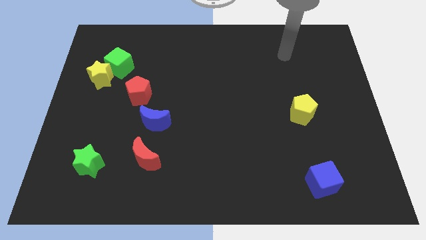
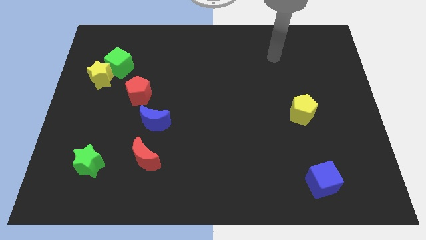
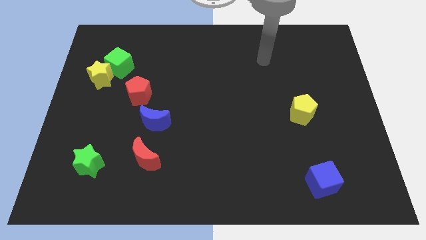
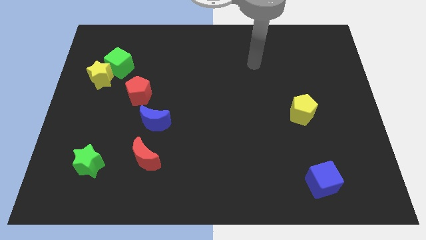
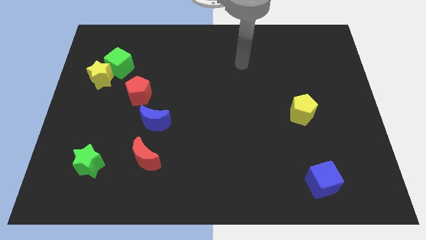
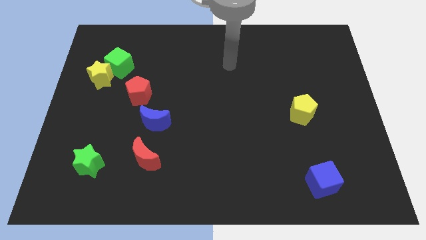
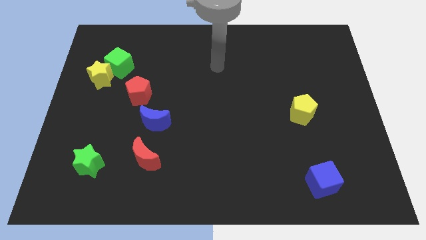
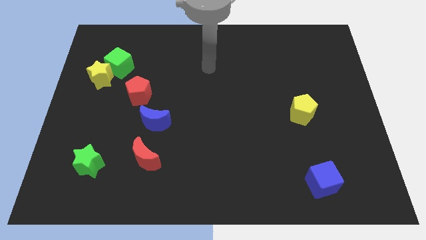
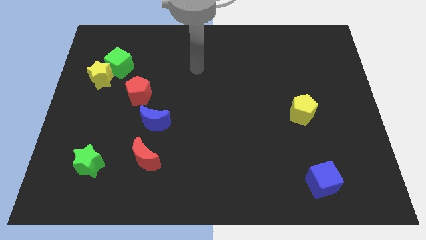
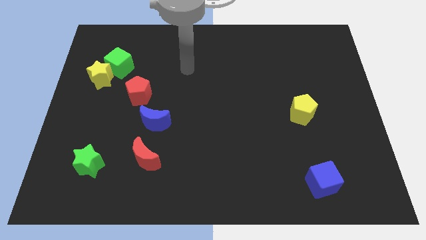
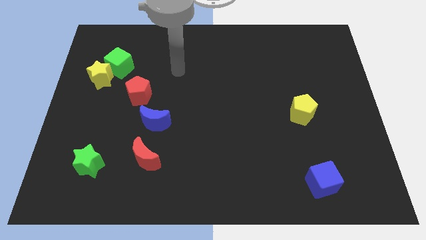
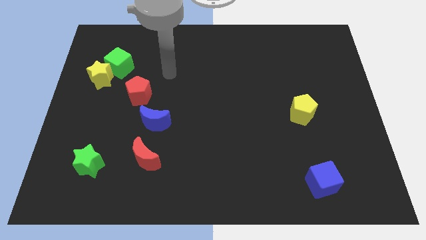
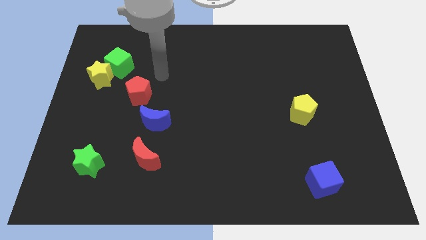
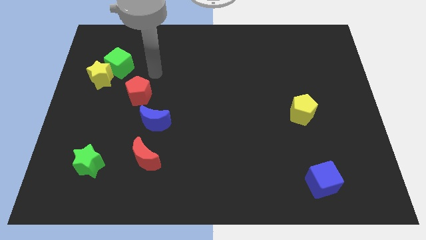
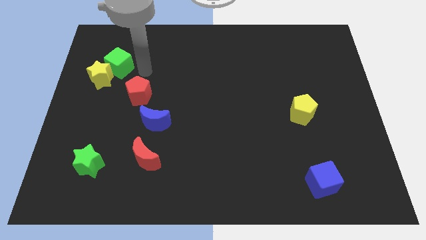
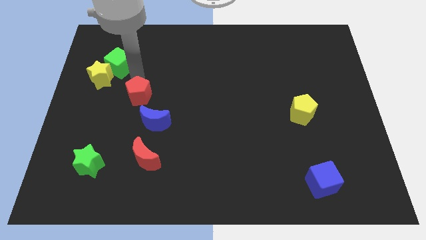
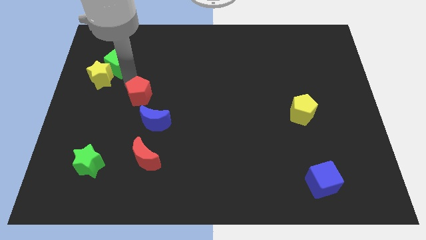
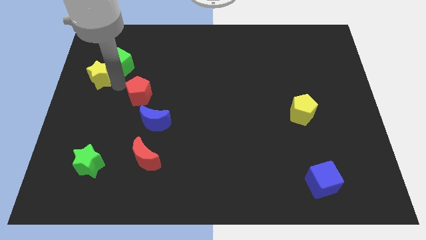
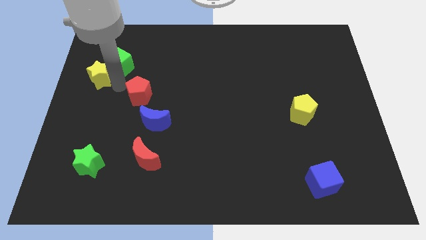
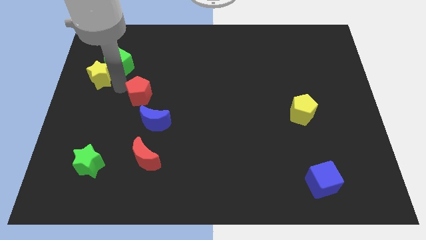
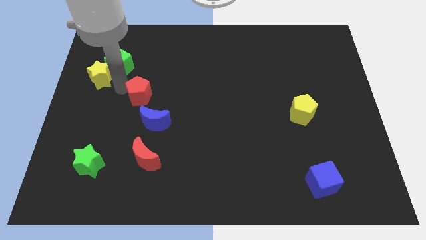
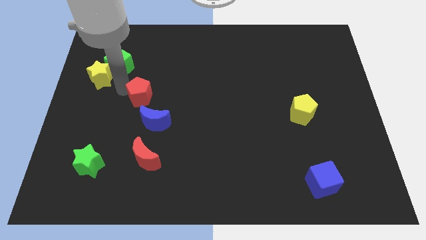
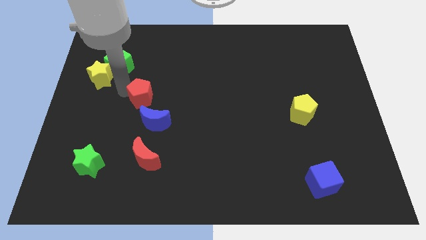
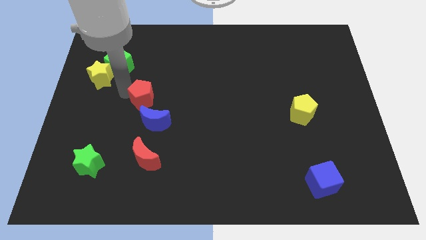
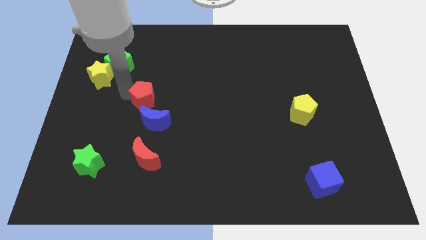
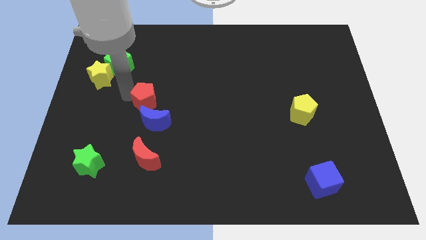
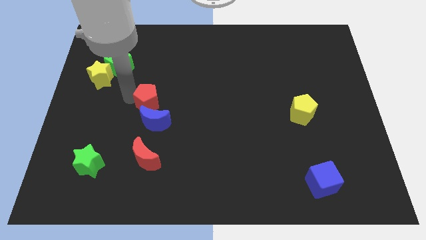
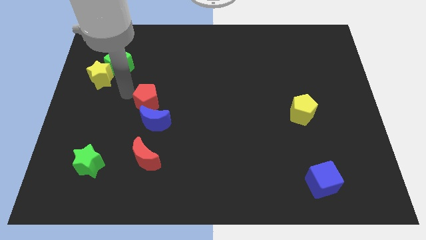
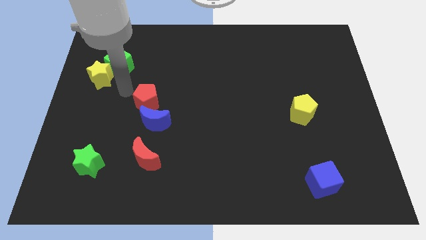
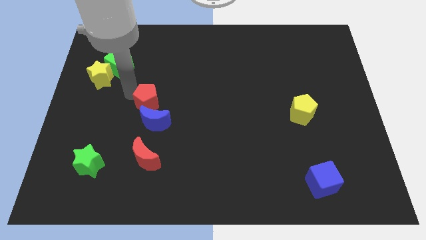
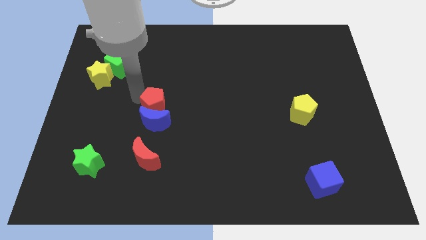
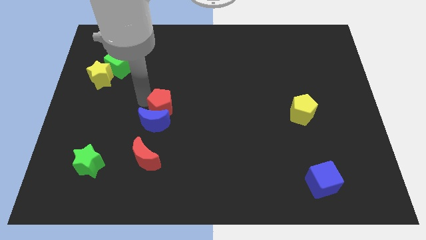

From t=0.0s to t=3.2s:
move the red pentagon downwards and to the right slightly

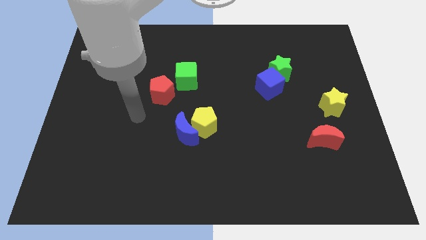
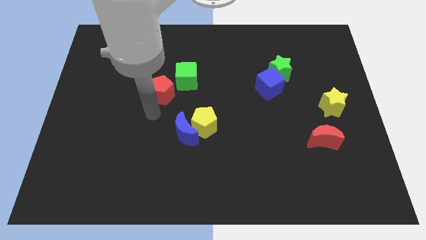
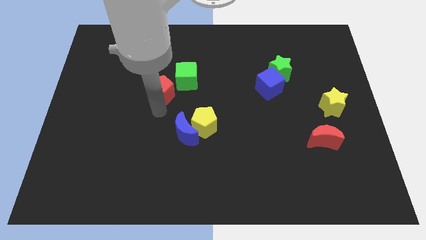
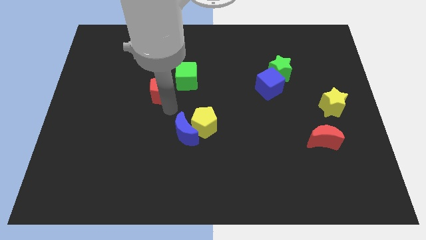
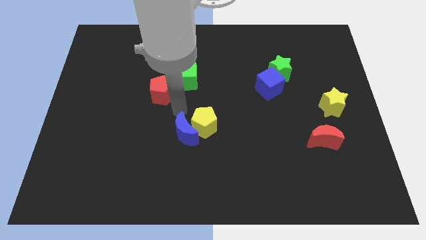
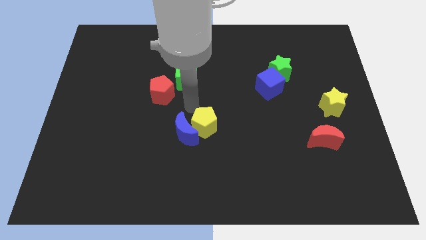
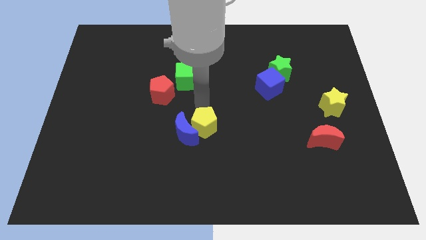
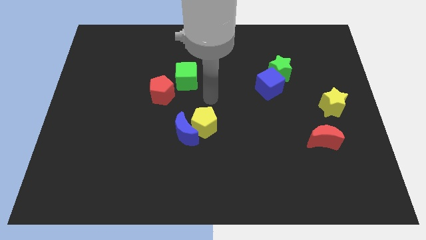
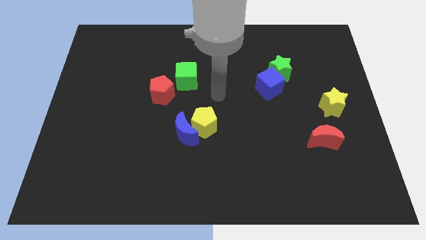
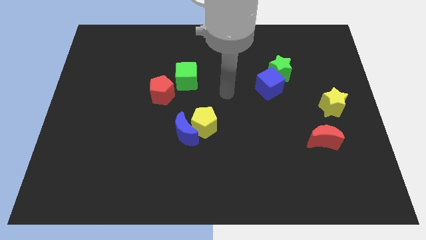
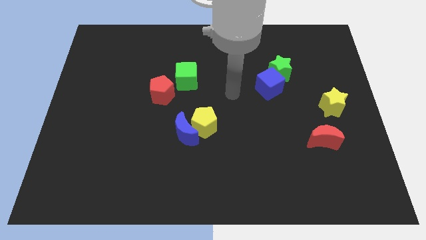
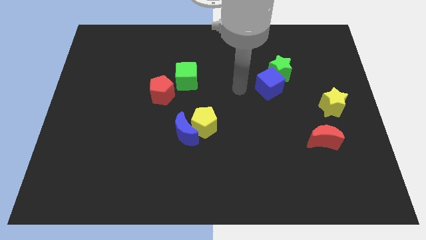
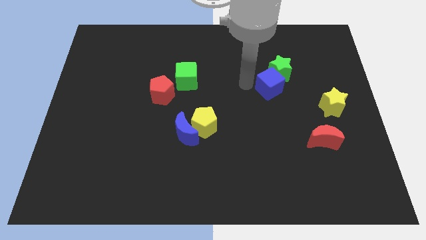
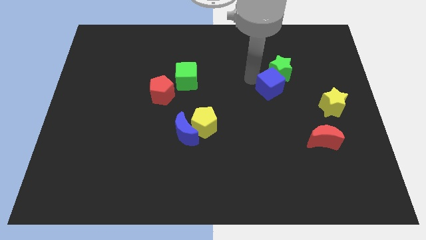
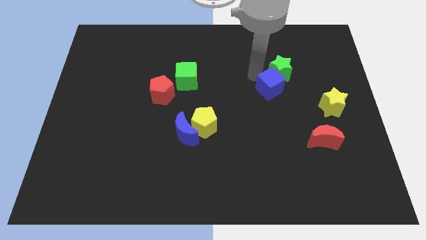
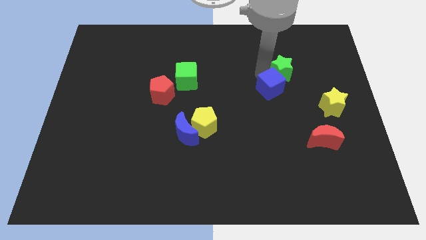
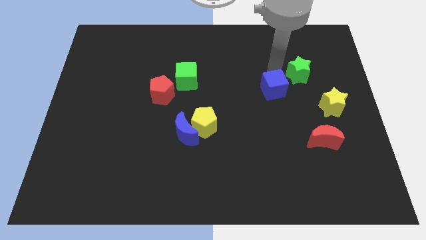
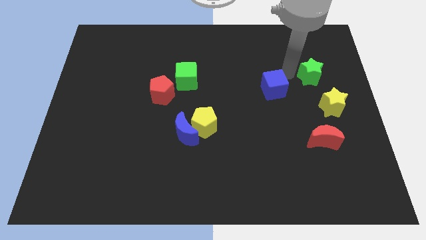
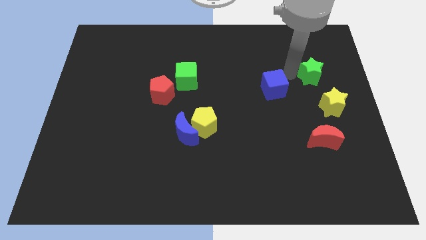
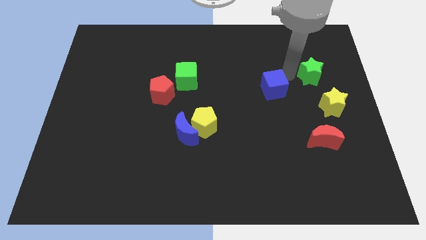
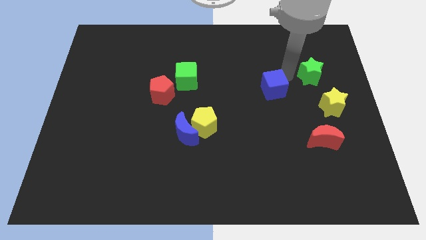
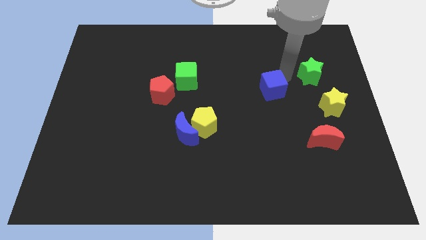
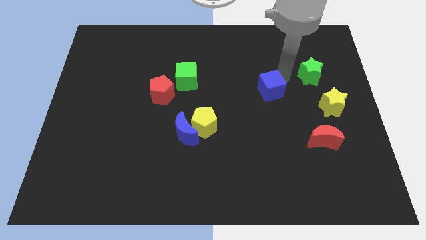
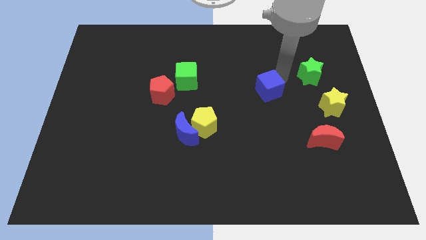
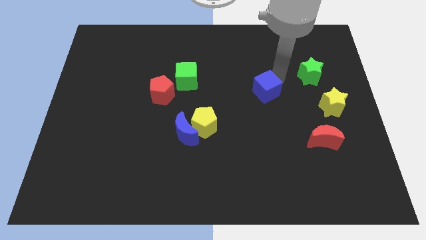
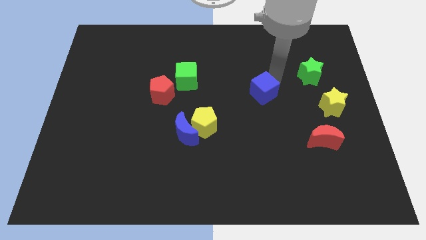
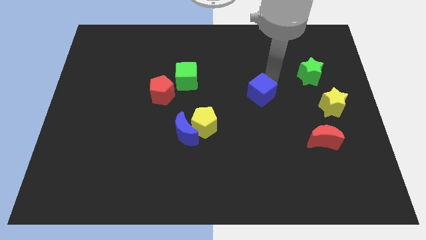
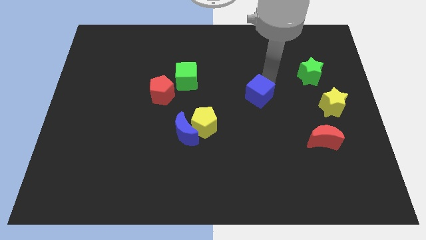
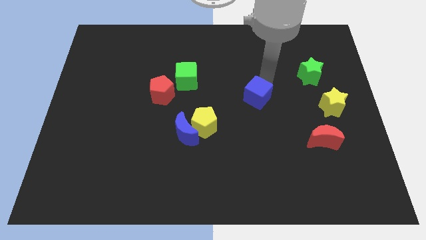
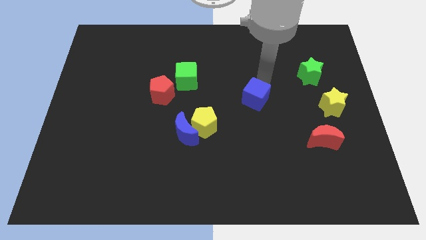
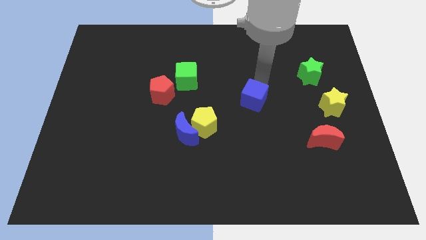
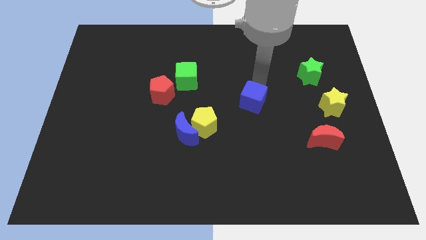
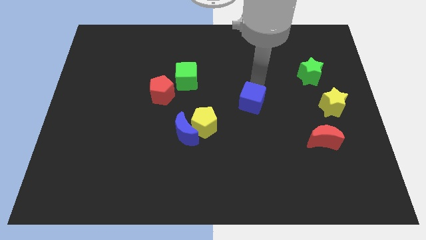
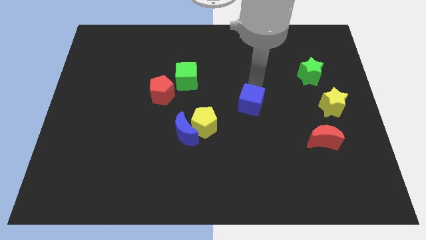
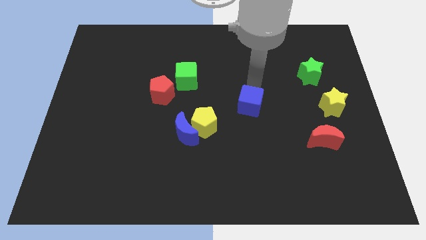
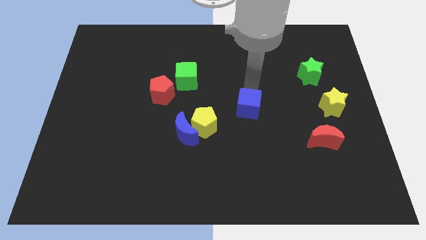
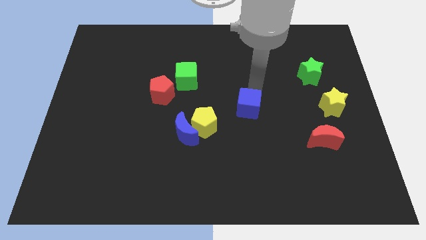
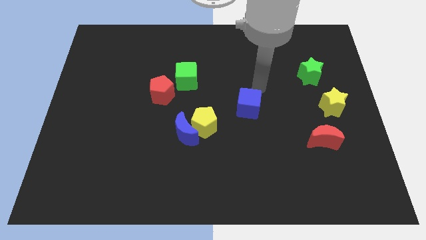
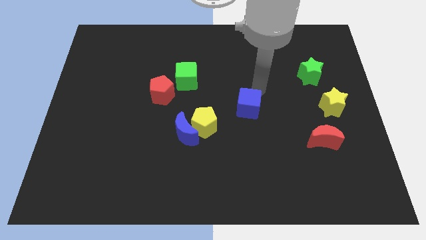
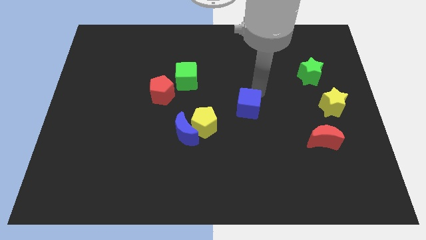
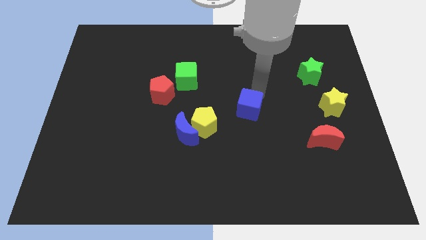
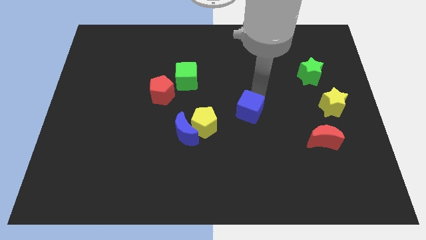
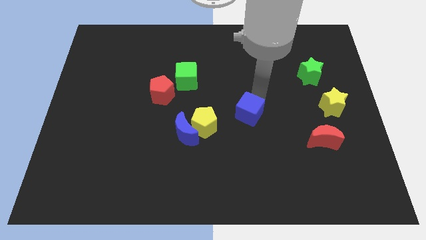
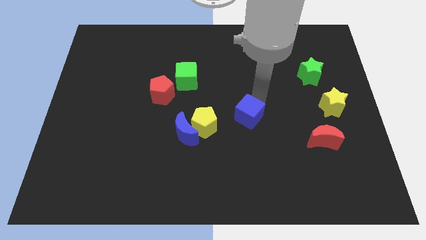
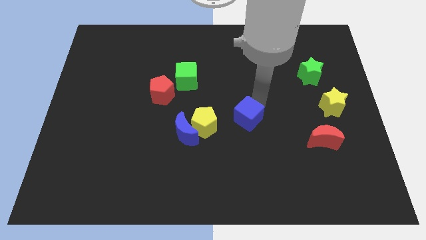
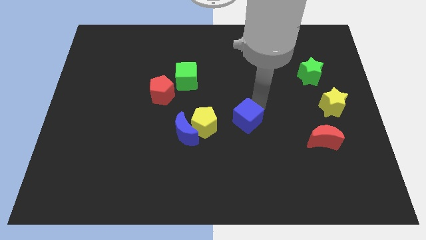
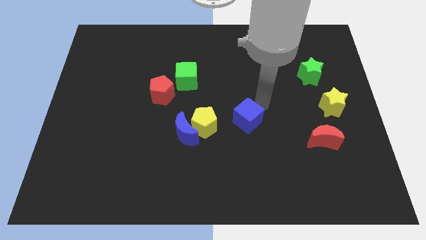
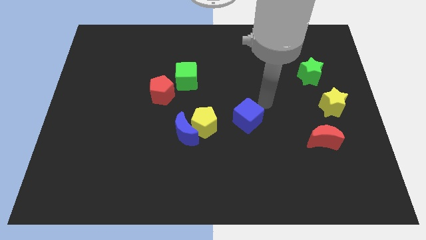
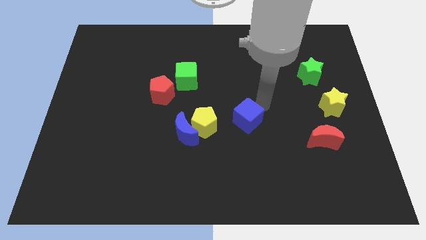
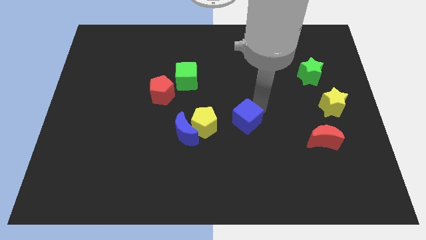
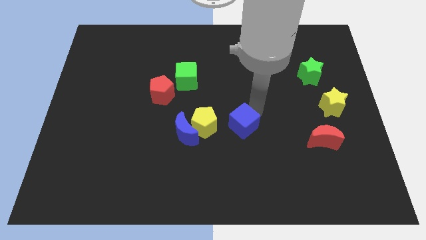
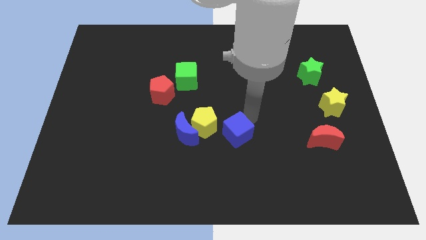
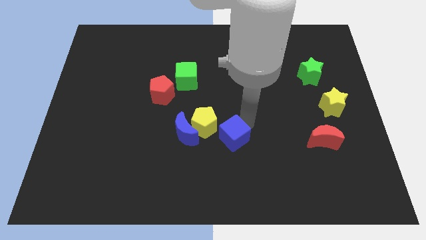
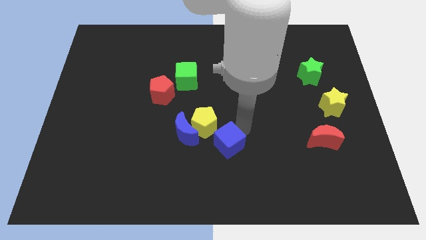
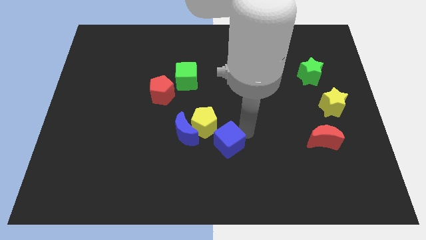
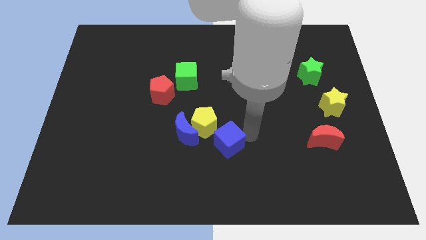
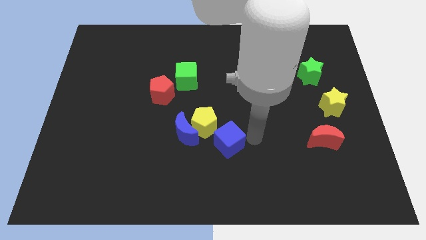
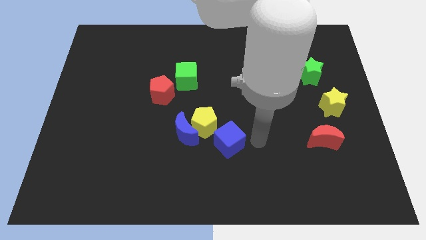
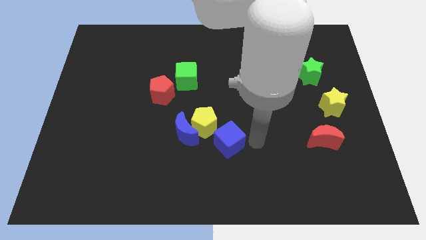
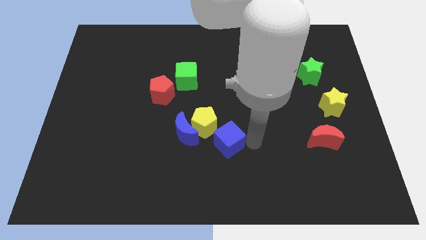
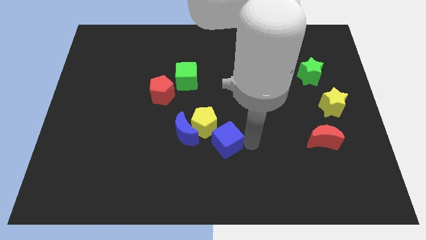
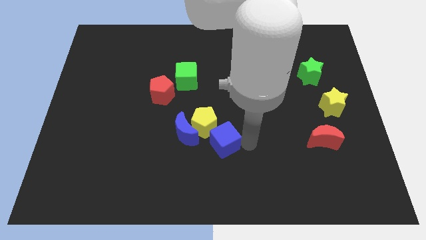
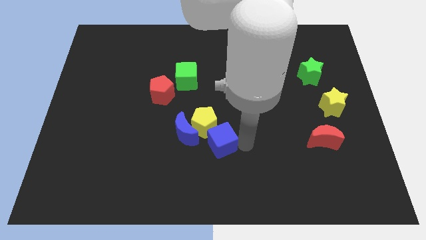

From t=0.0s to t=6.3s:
move the blue cube downwards and left
